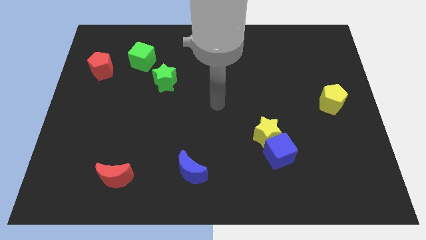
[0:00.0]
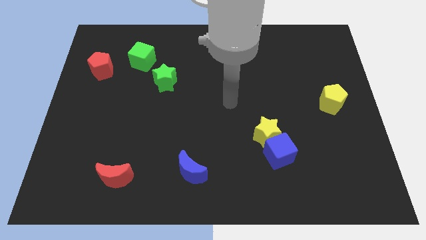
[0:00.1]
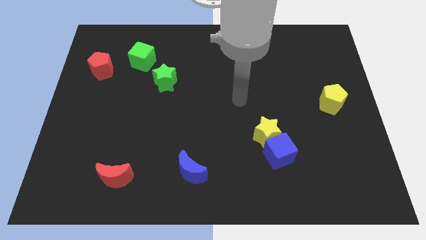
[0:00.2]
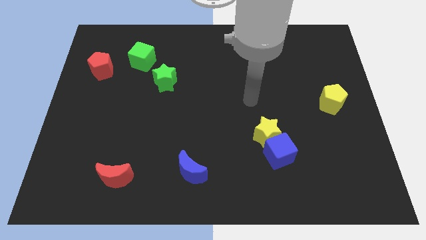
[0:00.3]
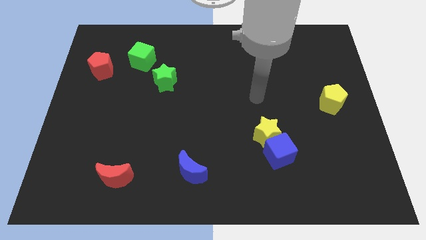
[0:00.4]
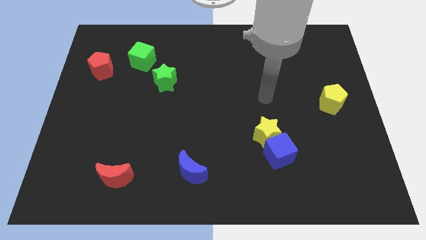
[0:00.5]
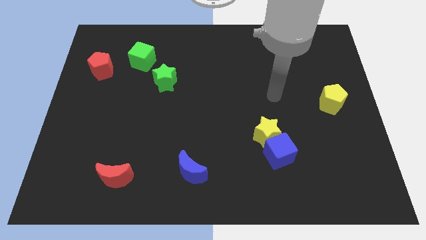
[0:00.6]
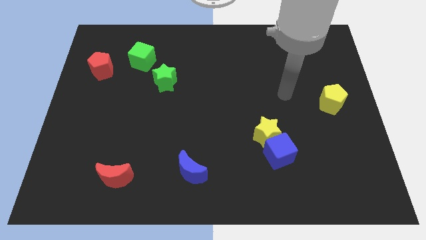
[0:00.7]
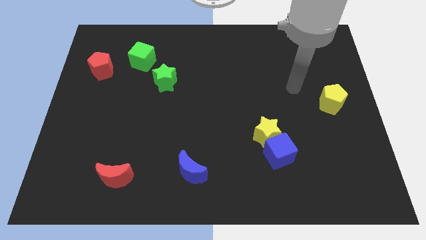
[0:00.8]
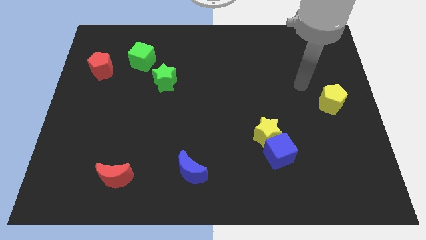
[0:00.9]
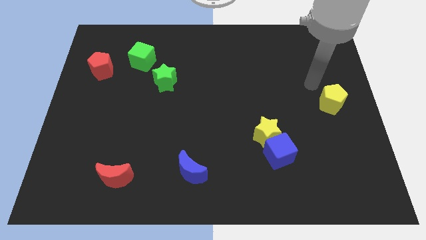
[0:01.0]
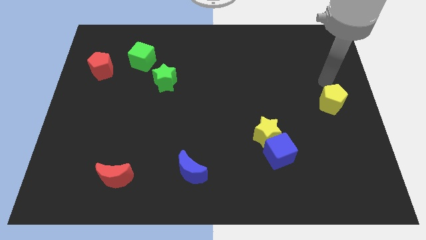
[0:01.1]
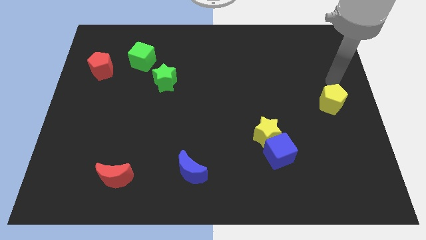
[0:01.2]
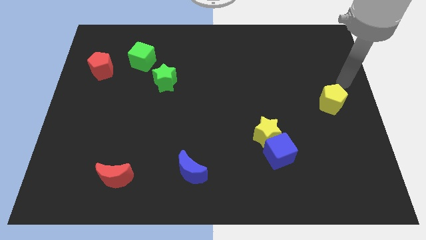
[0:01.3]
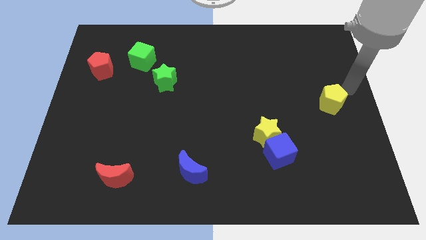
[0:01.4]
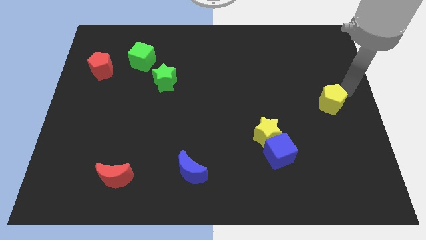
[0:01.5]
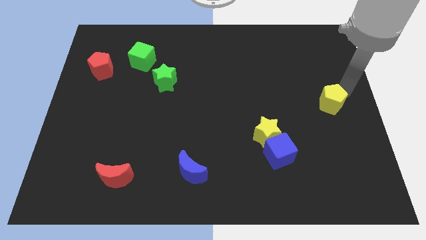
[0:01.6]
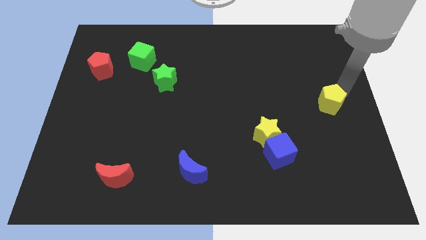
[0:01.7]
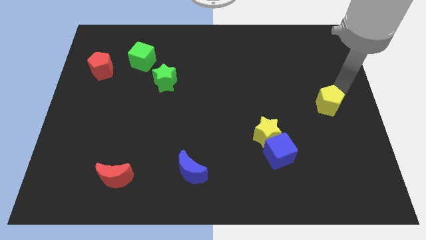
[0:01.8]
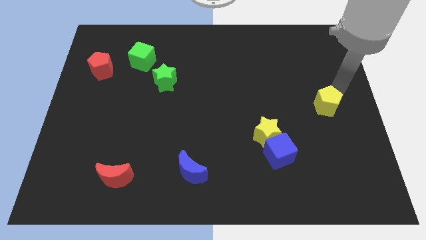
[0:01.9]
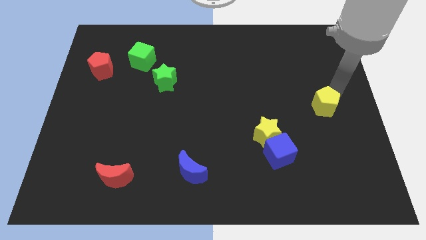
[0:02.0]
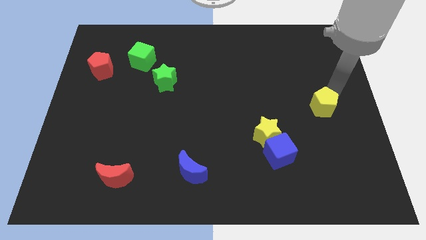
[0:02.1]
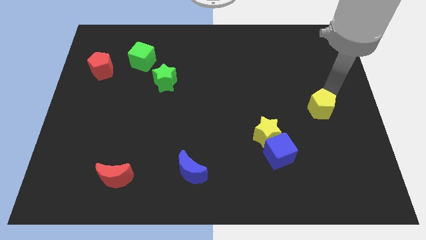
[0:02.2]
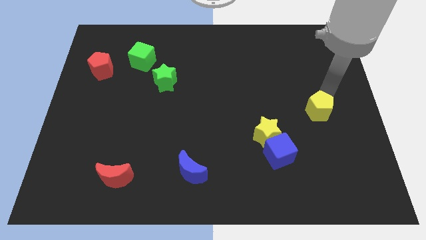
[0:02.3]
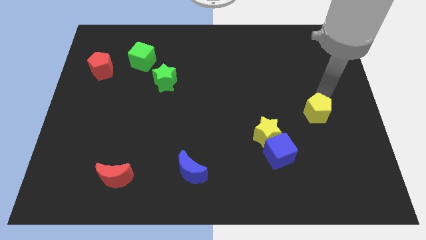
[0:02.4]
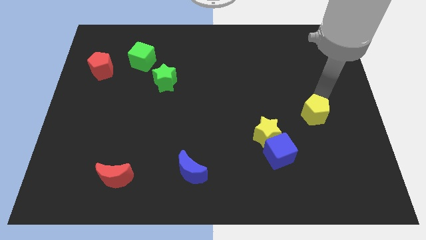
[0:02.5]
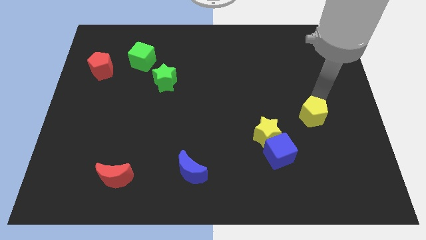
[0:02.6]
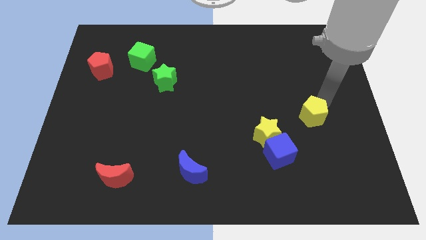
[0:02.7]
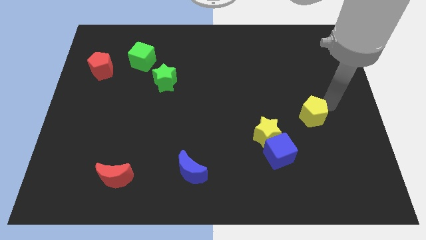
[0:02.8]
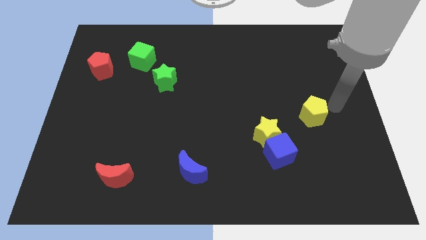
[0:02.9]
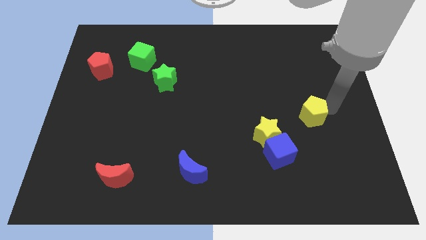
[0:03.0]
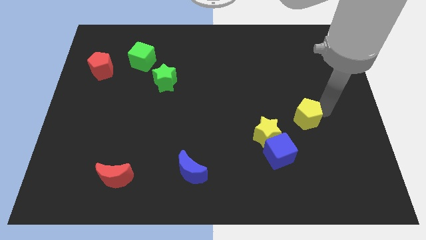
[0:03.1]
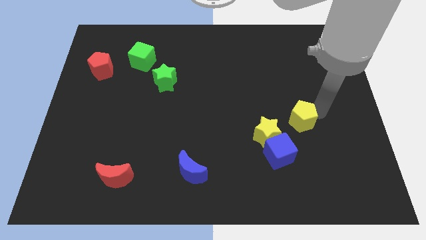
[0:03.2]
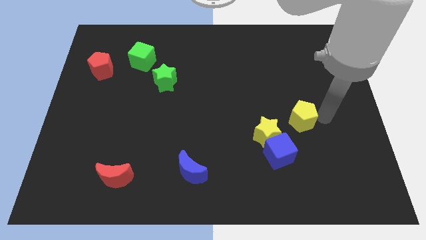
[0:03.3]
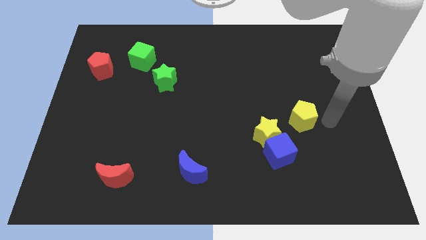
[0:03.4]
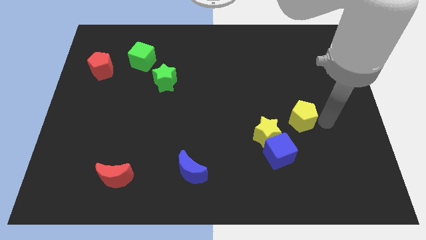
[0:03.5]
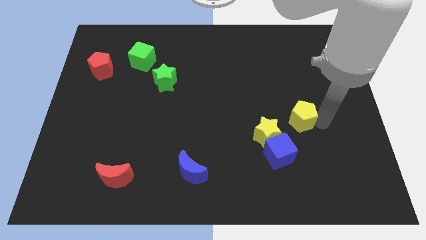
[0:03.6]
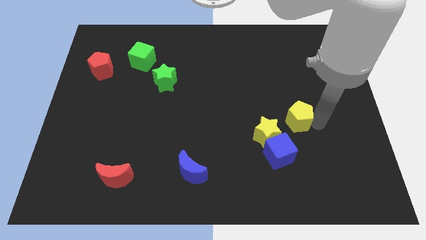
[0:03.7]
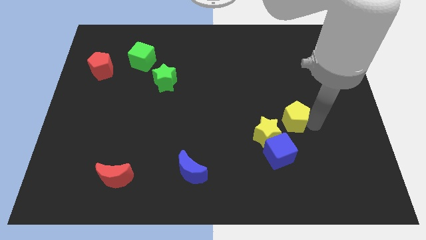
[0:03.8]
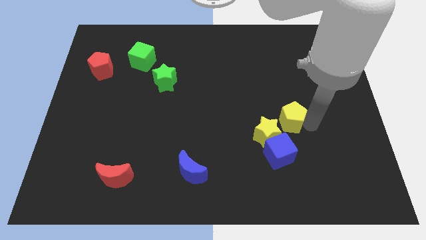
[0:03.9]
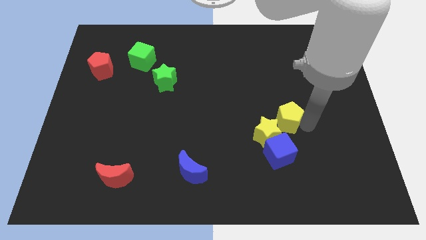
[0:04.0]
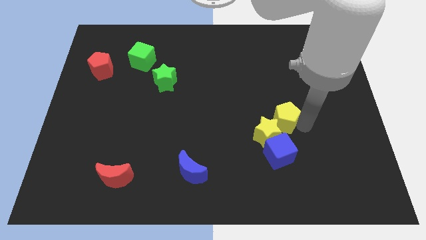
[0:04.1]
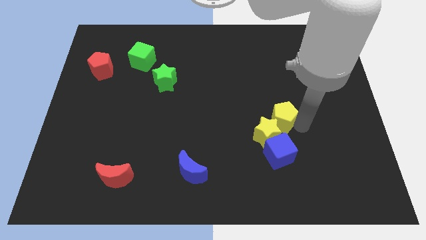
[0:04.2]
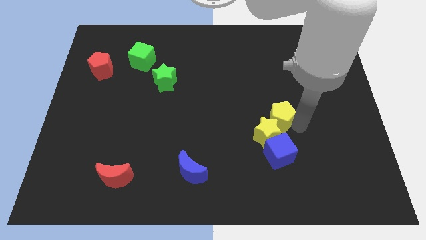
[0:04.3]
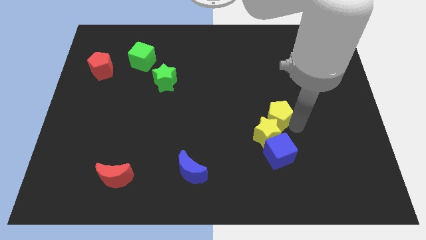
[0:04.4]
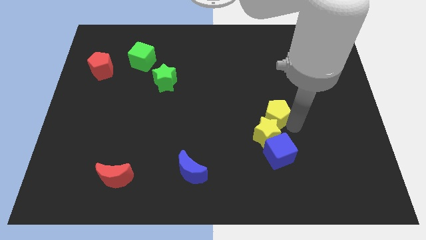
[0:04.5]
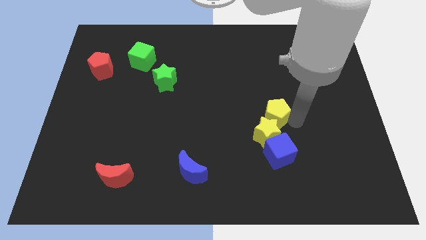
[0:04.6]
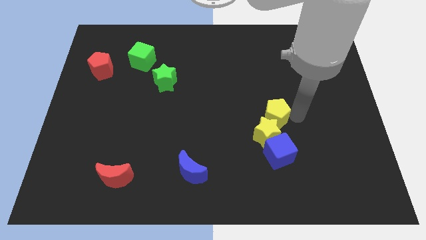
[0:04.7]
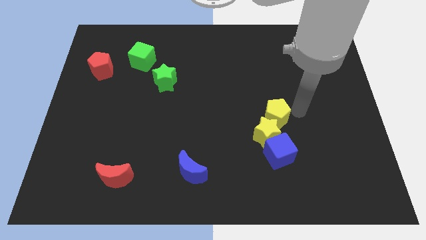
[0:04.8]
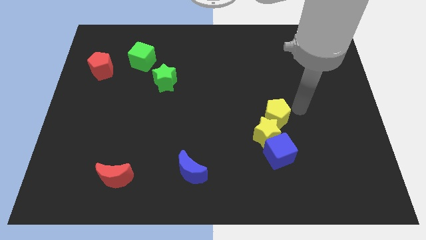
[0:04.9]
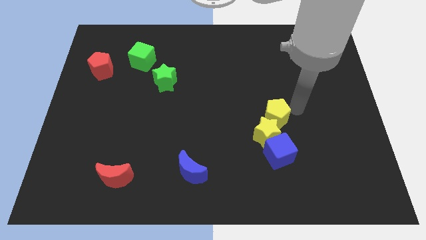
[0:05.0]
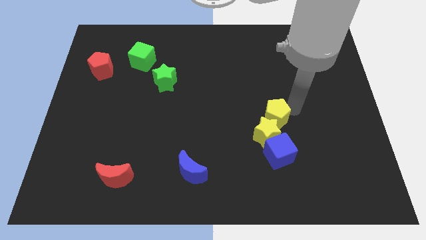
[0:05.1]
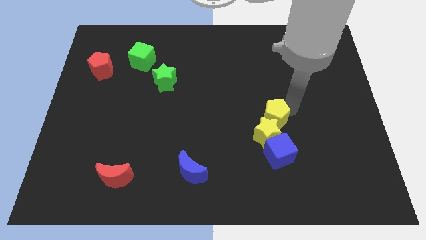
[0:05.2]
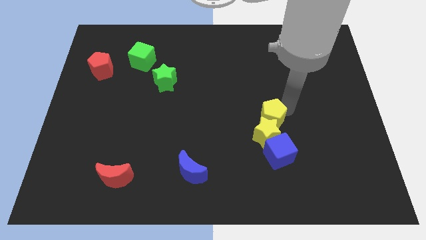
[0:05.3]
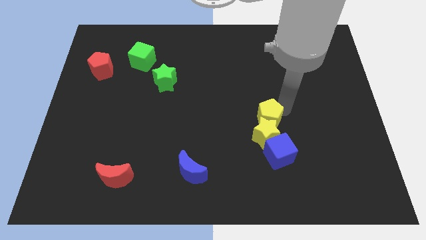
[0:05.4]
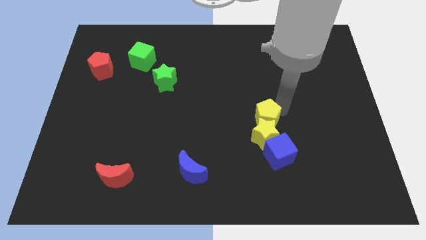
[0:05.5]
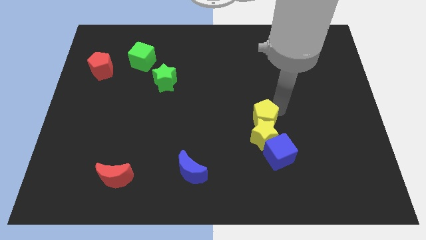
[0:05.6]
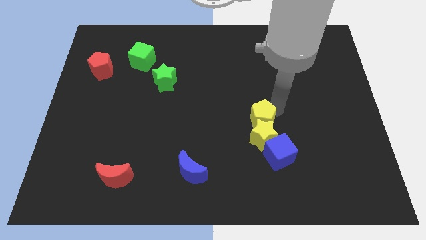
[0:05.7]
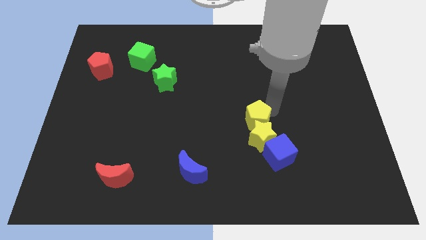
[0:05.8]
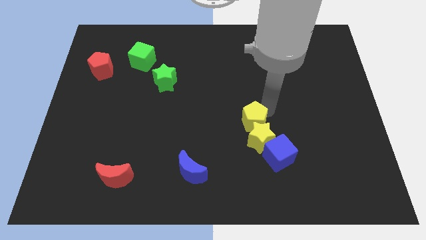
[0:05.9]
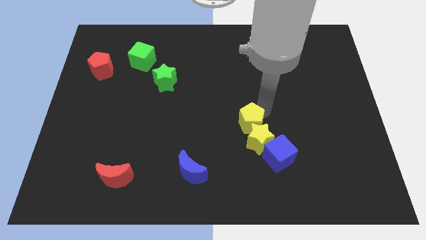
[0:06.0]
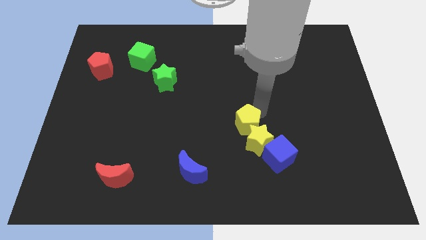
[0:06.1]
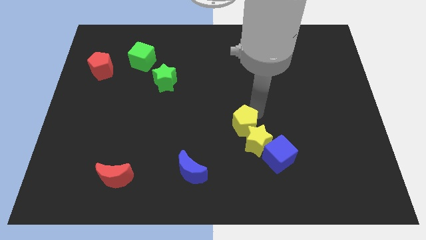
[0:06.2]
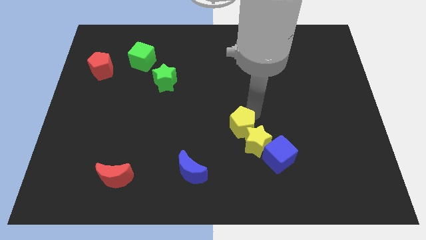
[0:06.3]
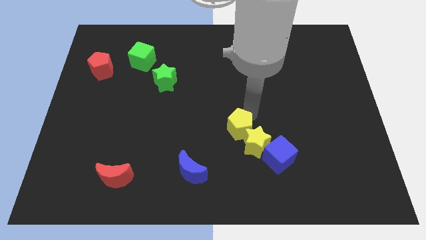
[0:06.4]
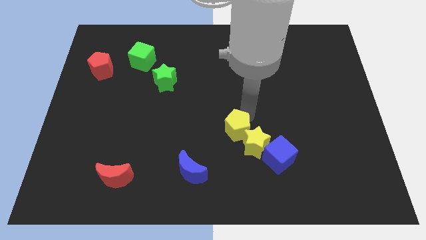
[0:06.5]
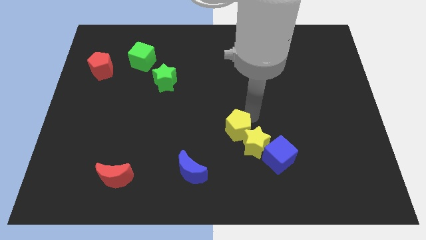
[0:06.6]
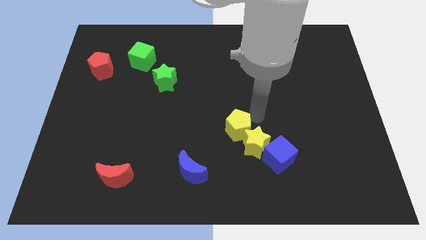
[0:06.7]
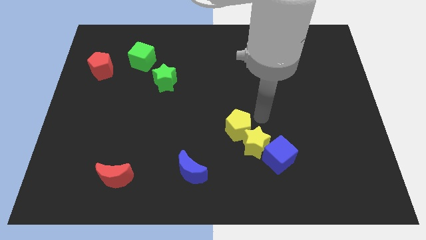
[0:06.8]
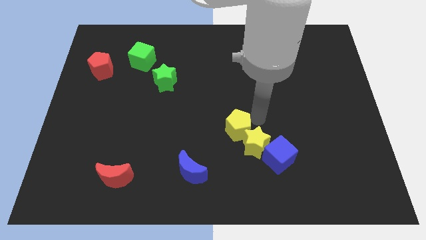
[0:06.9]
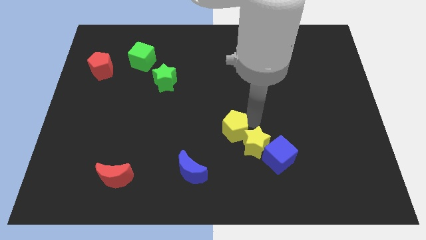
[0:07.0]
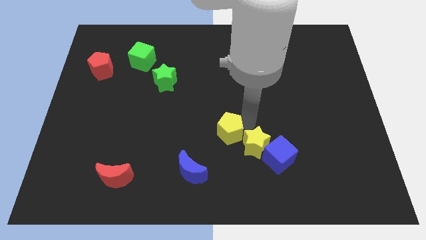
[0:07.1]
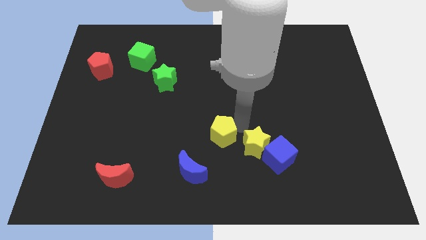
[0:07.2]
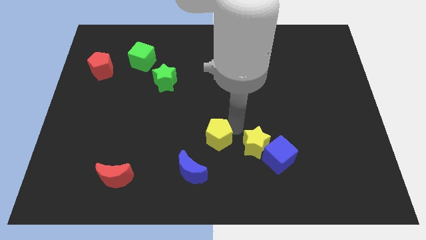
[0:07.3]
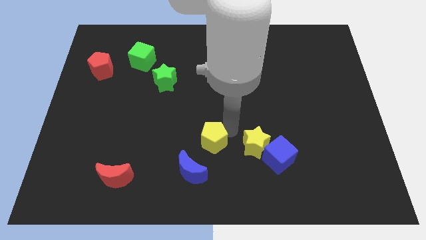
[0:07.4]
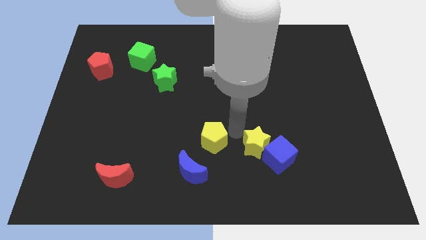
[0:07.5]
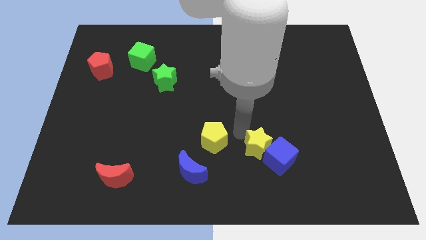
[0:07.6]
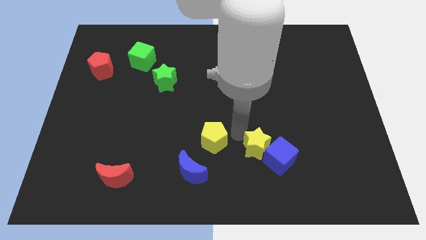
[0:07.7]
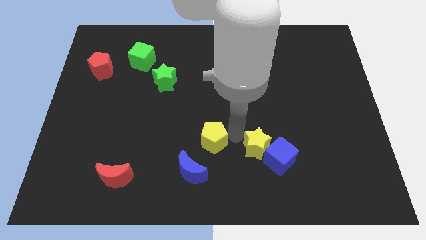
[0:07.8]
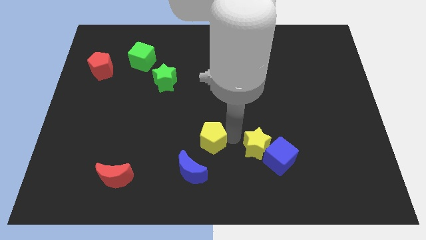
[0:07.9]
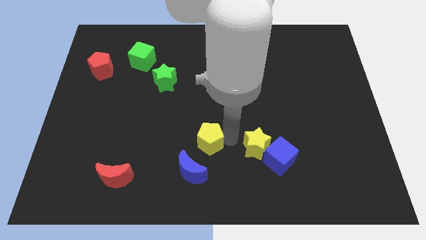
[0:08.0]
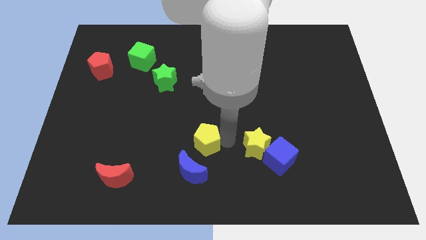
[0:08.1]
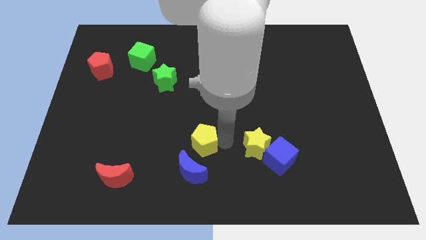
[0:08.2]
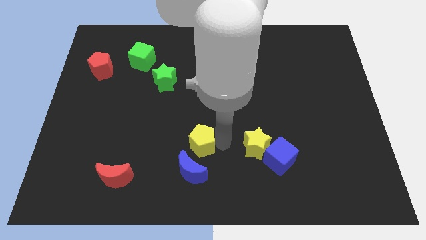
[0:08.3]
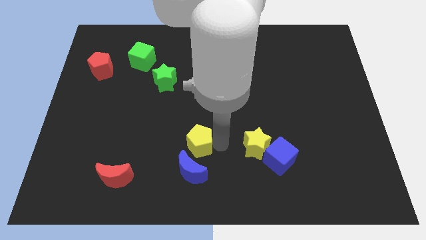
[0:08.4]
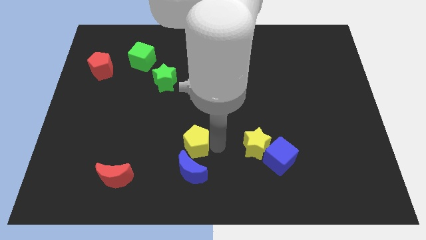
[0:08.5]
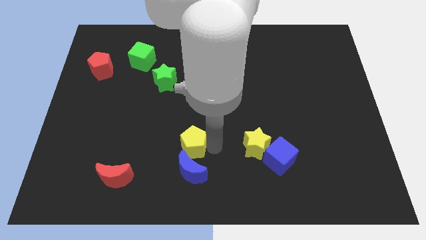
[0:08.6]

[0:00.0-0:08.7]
slide the yellow pentagon diagonally up and to the left of the blue moon
